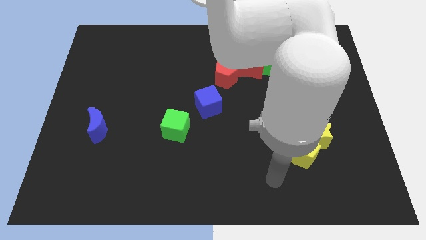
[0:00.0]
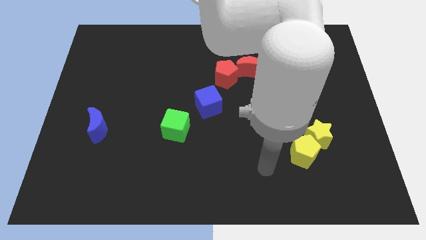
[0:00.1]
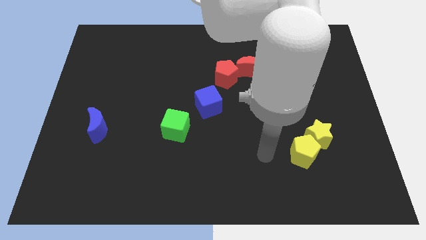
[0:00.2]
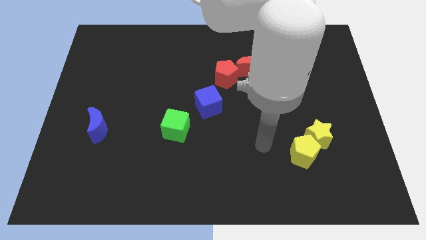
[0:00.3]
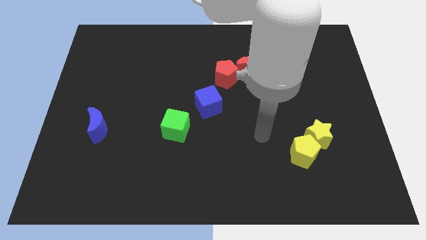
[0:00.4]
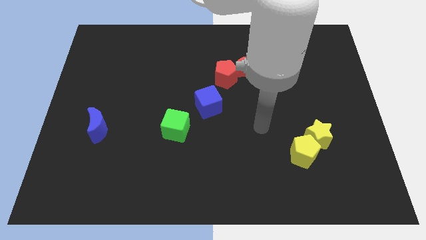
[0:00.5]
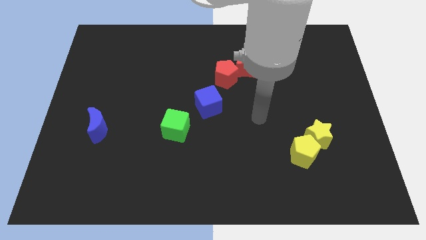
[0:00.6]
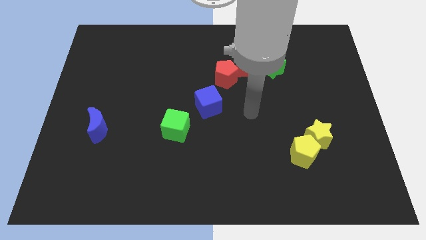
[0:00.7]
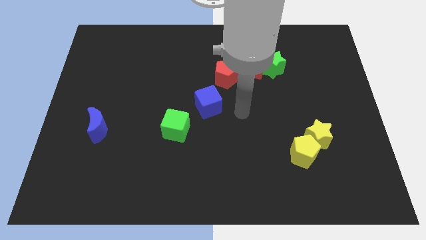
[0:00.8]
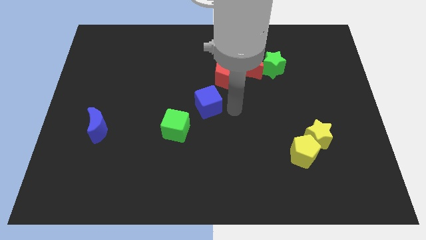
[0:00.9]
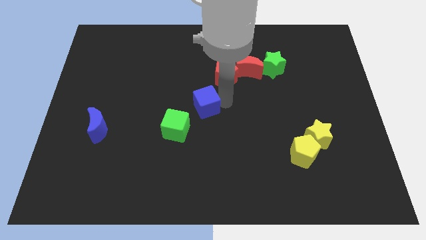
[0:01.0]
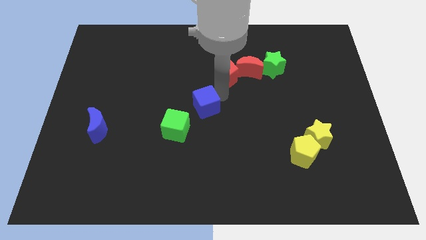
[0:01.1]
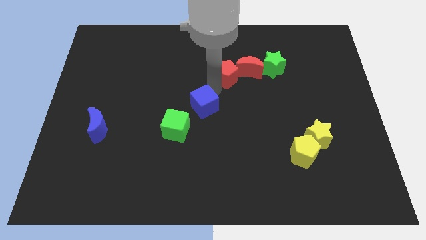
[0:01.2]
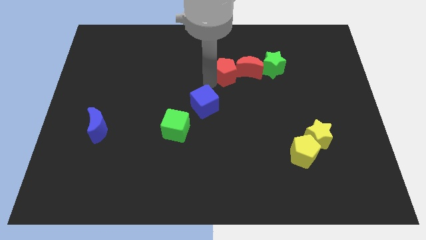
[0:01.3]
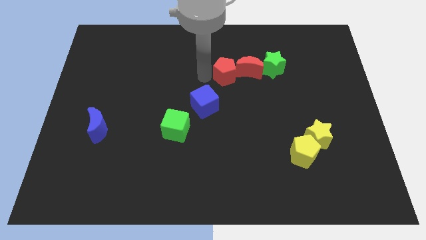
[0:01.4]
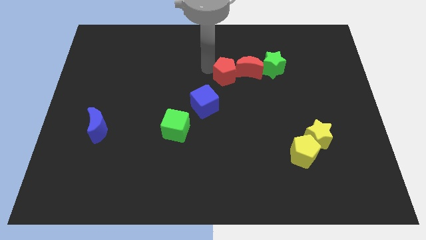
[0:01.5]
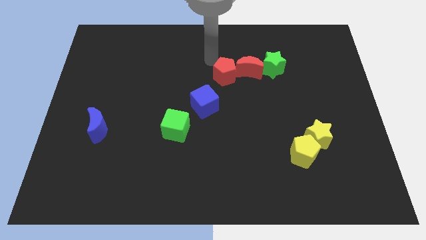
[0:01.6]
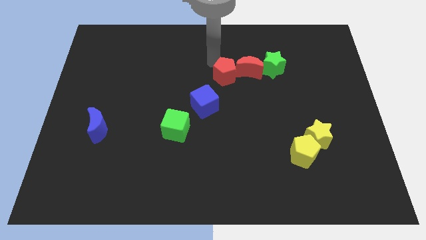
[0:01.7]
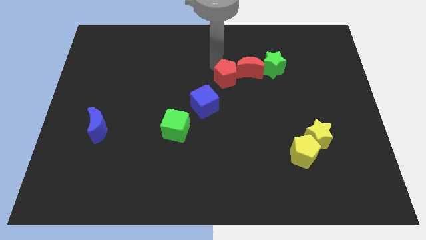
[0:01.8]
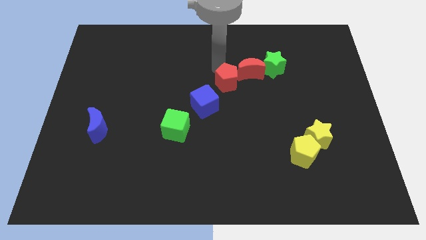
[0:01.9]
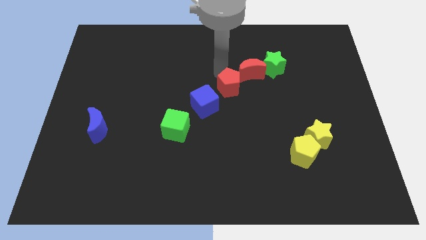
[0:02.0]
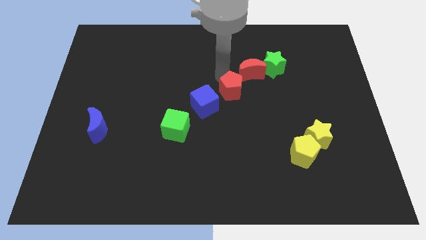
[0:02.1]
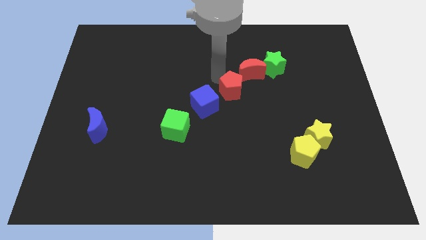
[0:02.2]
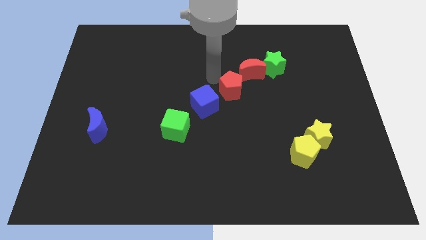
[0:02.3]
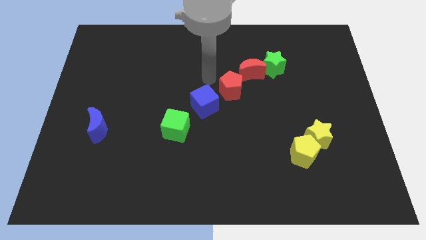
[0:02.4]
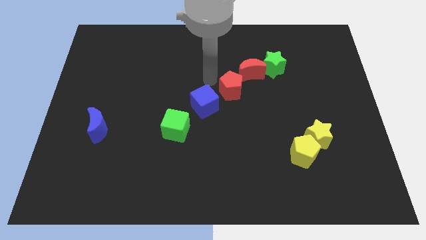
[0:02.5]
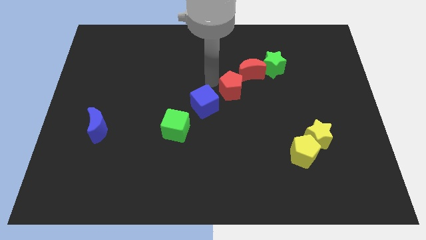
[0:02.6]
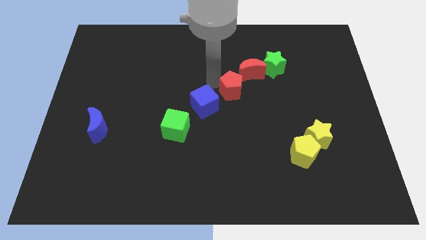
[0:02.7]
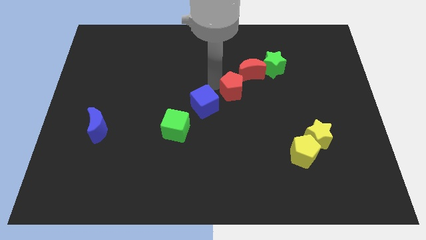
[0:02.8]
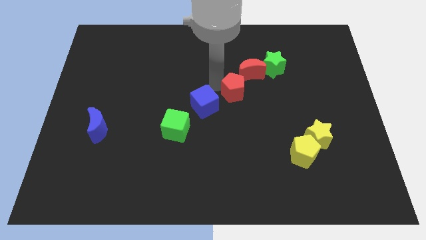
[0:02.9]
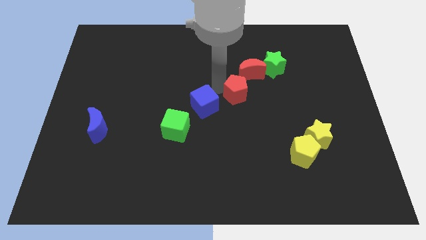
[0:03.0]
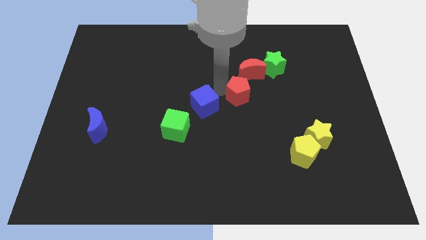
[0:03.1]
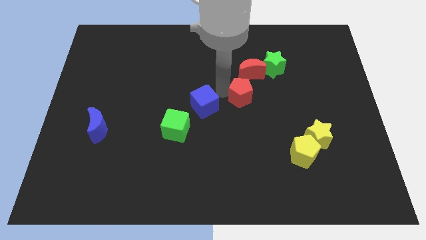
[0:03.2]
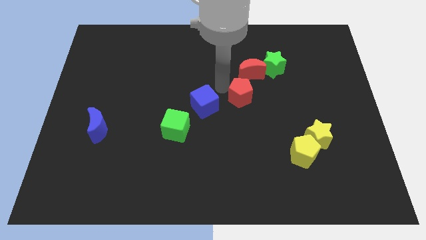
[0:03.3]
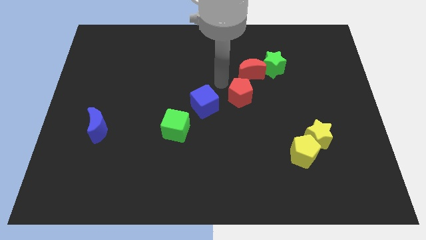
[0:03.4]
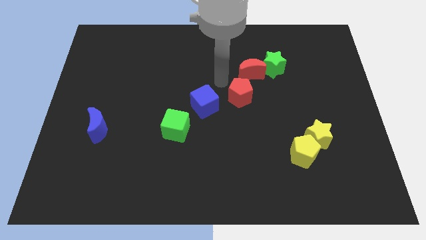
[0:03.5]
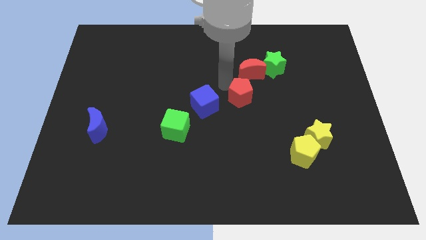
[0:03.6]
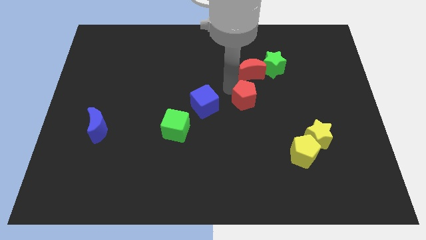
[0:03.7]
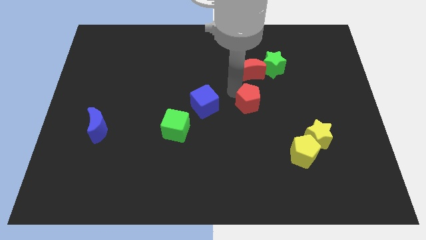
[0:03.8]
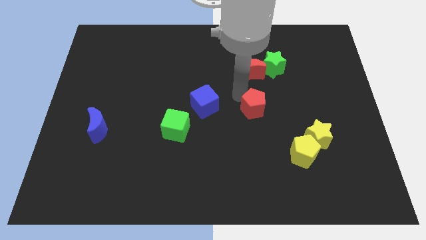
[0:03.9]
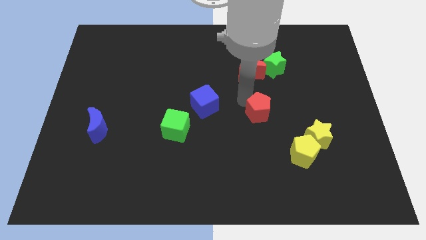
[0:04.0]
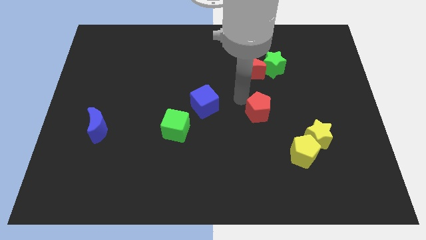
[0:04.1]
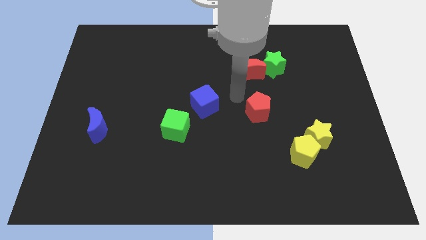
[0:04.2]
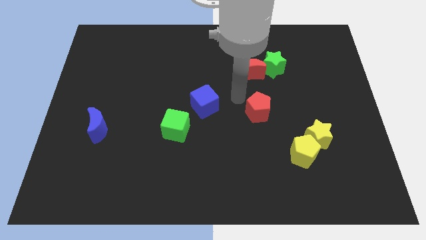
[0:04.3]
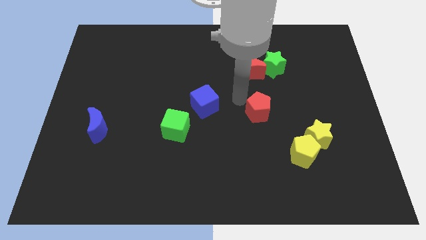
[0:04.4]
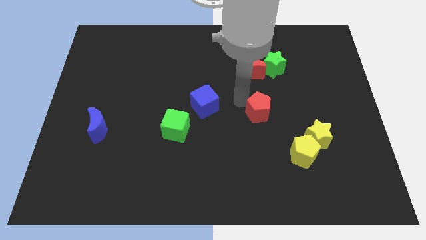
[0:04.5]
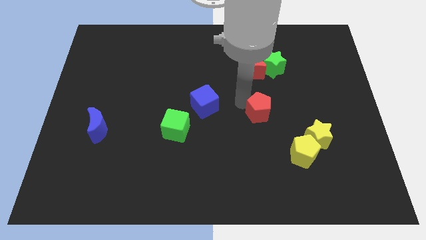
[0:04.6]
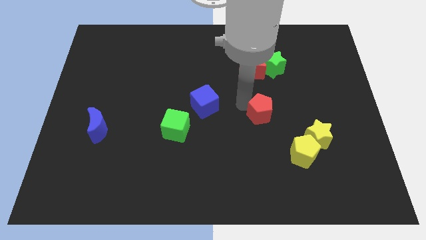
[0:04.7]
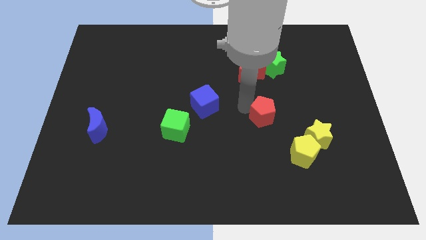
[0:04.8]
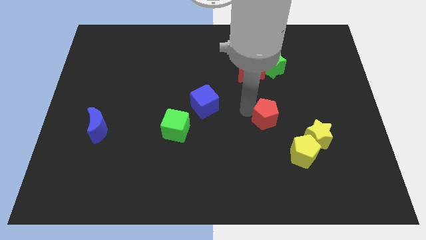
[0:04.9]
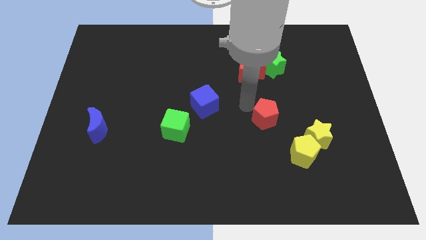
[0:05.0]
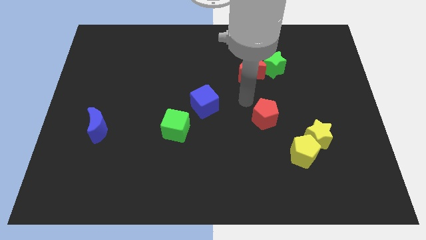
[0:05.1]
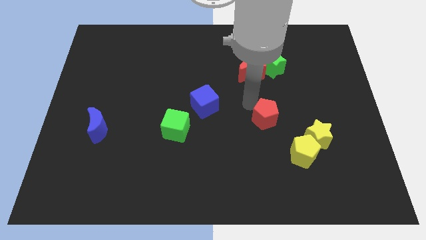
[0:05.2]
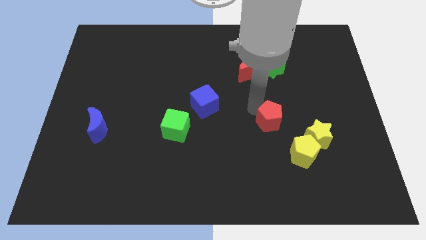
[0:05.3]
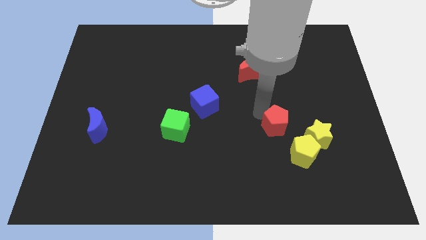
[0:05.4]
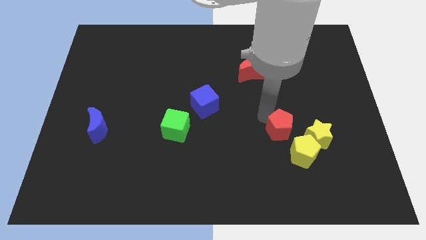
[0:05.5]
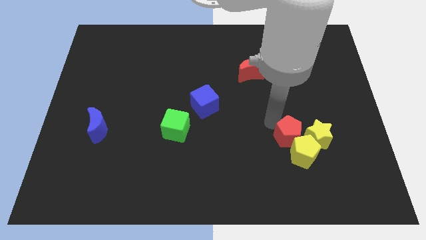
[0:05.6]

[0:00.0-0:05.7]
push the red pentagon to the yellow pentagon

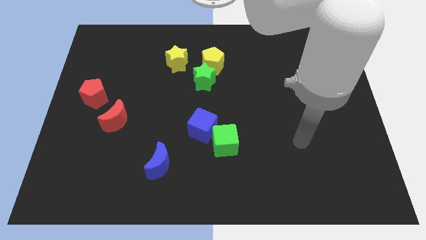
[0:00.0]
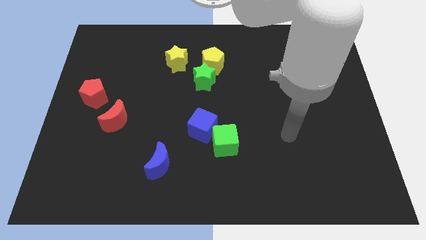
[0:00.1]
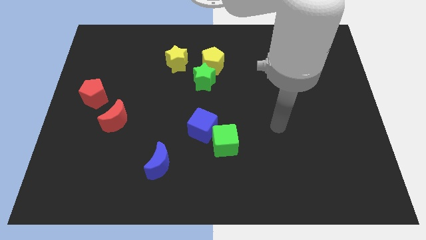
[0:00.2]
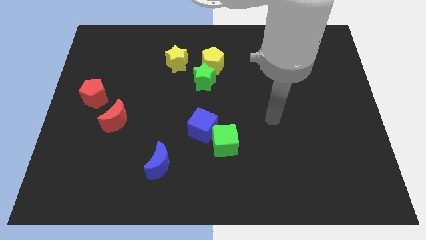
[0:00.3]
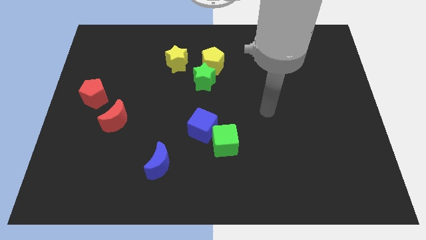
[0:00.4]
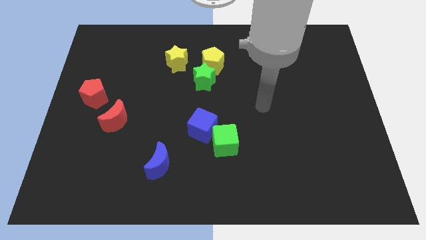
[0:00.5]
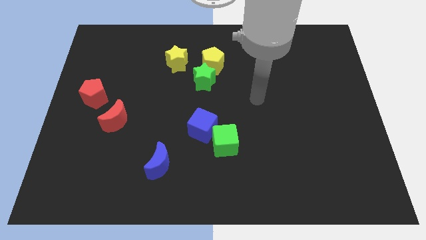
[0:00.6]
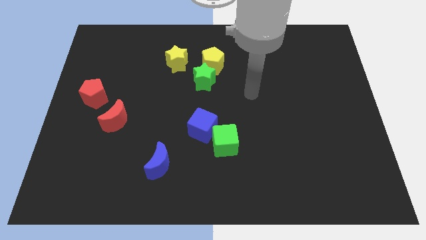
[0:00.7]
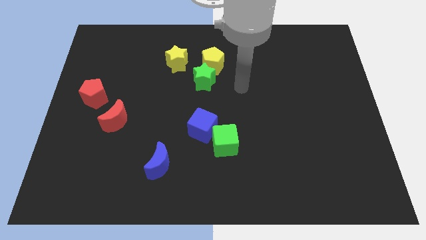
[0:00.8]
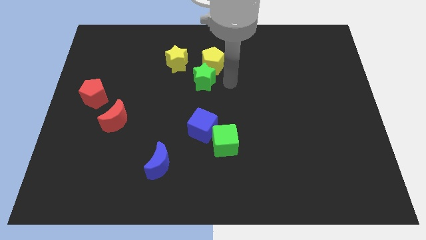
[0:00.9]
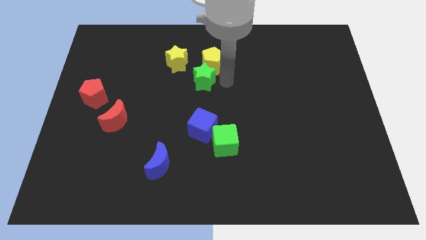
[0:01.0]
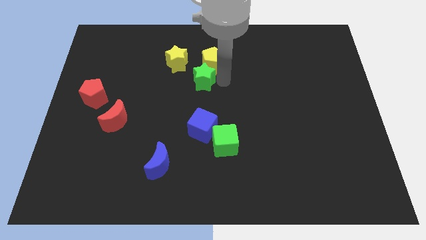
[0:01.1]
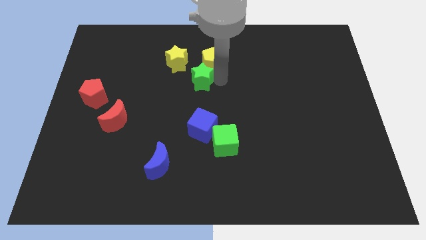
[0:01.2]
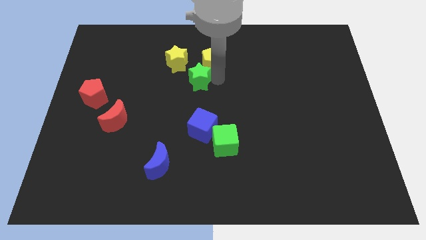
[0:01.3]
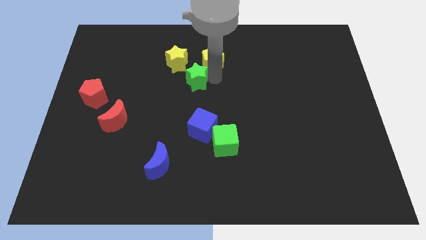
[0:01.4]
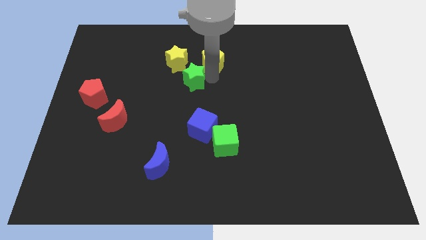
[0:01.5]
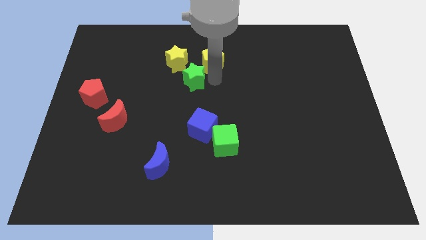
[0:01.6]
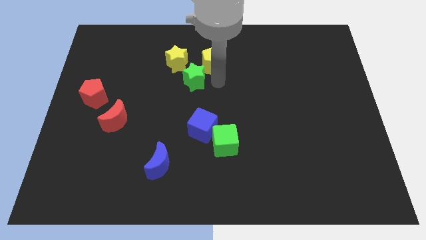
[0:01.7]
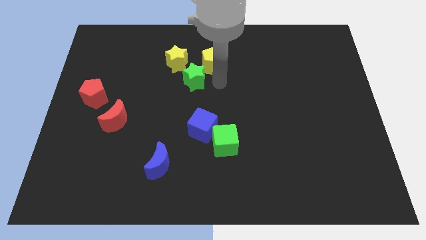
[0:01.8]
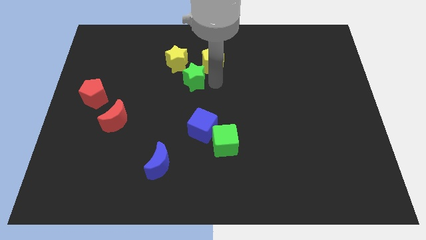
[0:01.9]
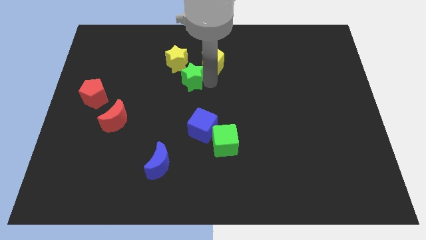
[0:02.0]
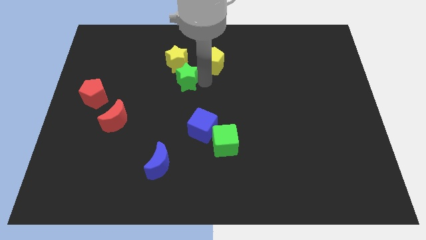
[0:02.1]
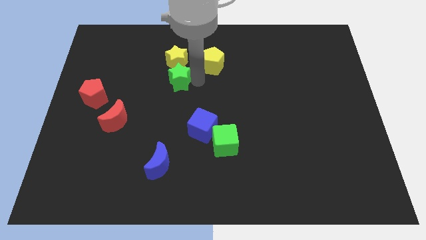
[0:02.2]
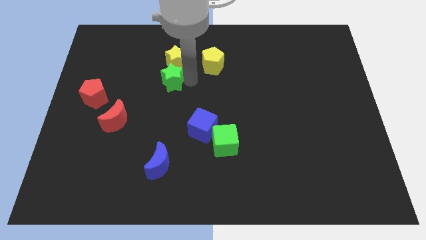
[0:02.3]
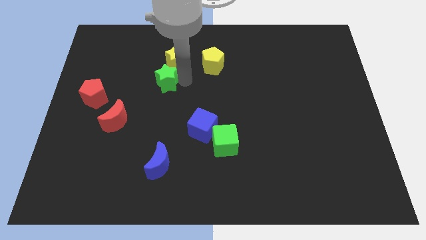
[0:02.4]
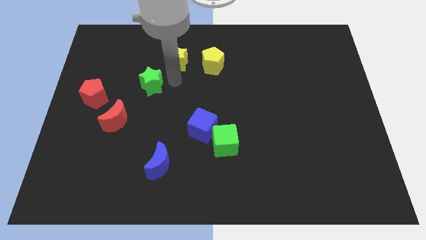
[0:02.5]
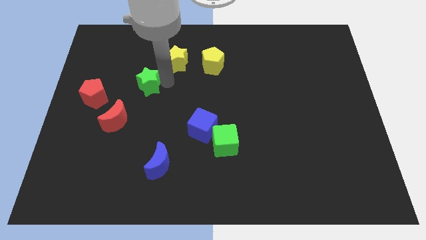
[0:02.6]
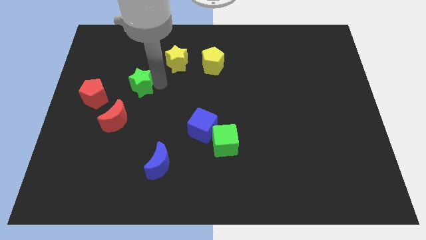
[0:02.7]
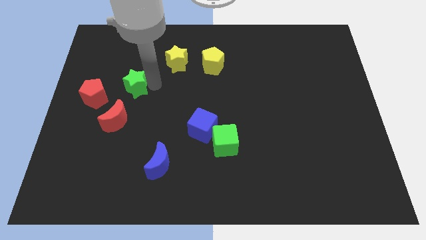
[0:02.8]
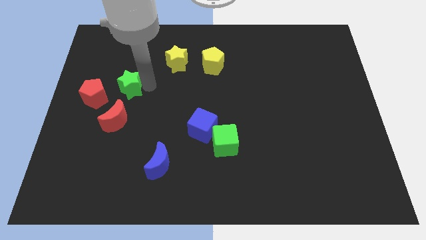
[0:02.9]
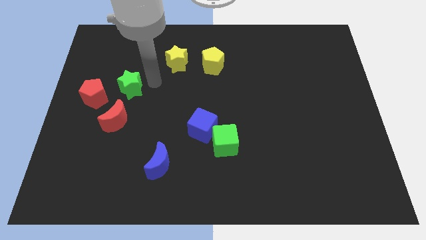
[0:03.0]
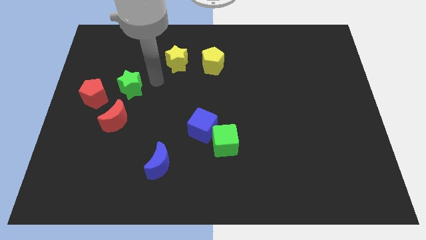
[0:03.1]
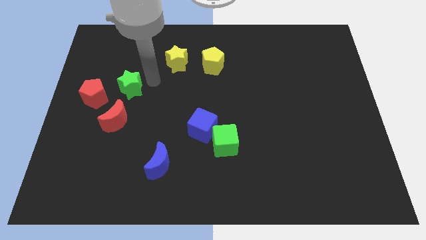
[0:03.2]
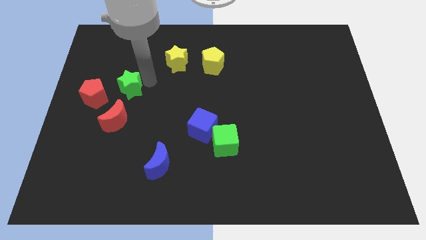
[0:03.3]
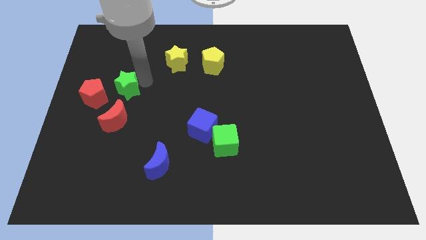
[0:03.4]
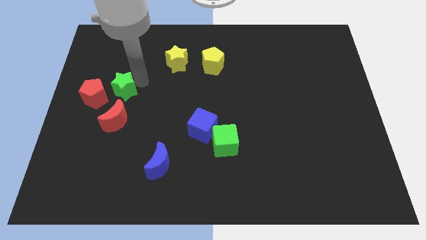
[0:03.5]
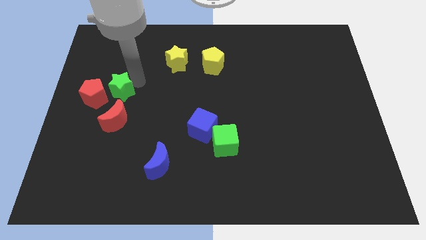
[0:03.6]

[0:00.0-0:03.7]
move the green star next to the red pentagon
